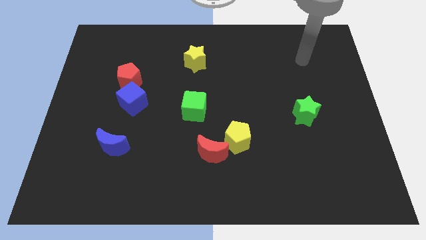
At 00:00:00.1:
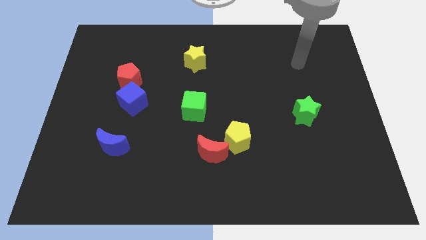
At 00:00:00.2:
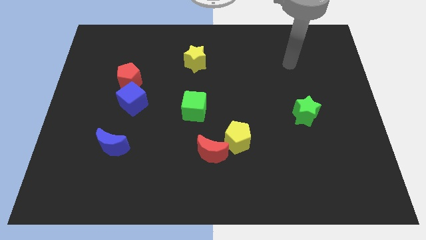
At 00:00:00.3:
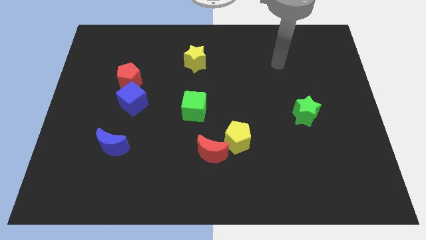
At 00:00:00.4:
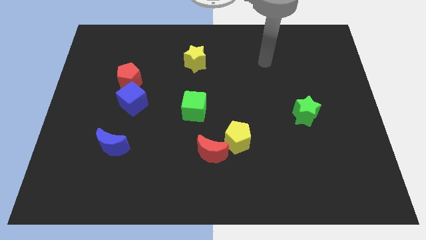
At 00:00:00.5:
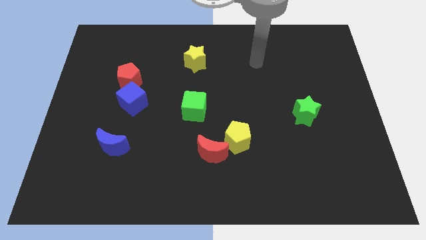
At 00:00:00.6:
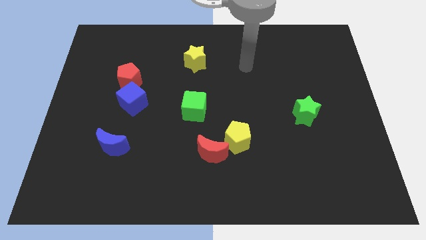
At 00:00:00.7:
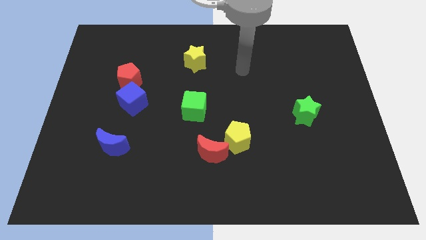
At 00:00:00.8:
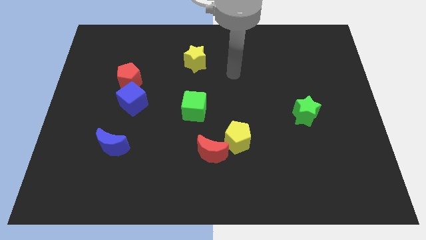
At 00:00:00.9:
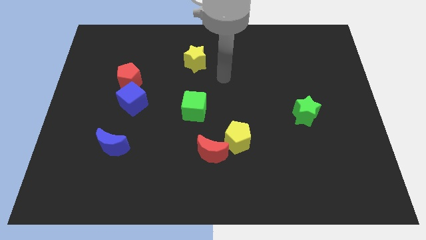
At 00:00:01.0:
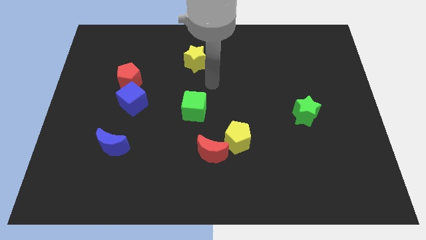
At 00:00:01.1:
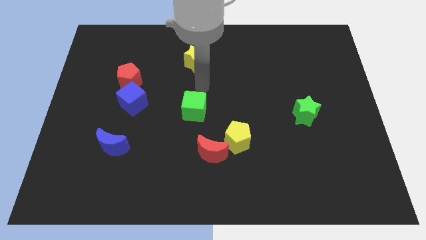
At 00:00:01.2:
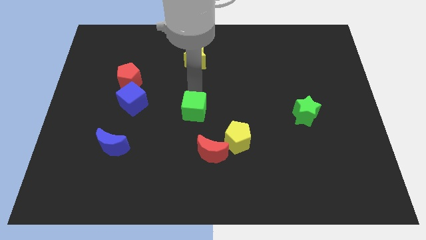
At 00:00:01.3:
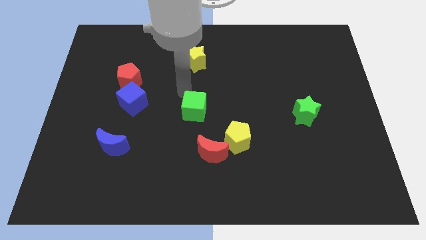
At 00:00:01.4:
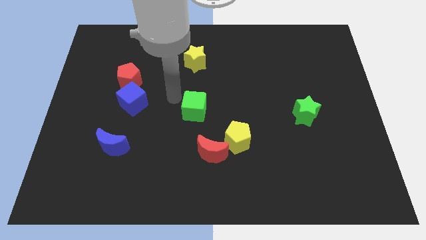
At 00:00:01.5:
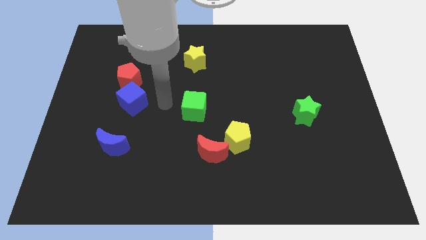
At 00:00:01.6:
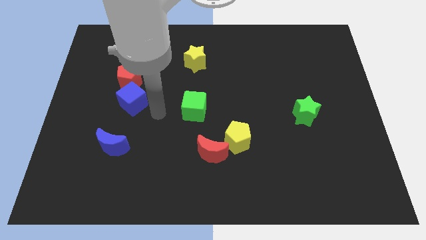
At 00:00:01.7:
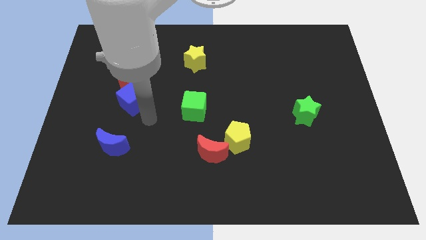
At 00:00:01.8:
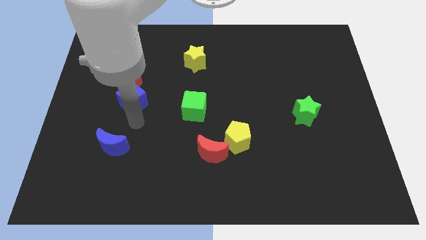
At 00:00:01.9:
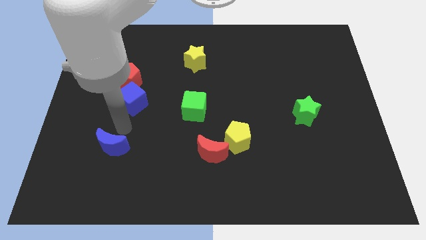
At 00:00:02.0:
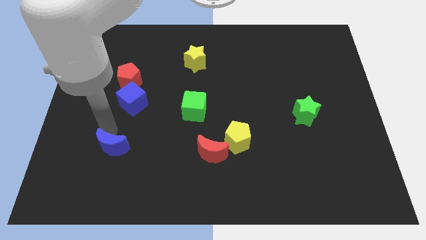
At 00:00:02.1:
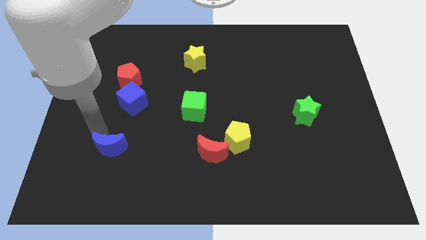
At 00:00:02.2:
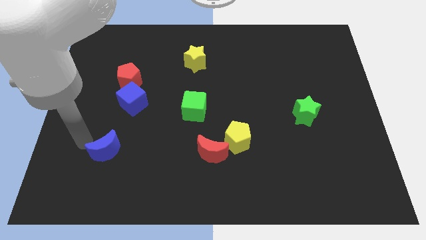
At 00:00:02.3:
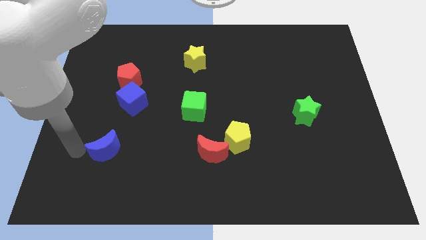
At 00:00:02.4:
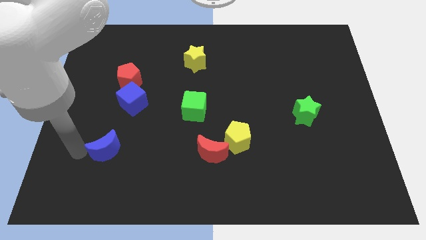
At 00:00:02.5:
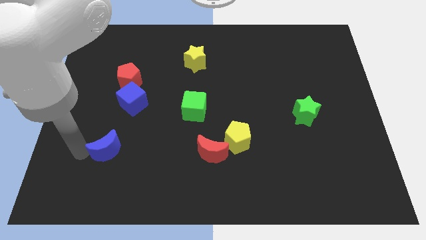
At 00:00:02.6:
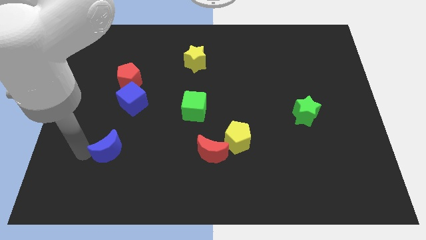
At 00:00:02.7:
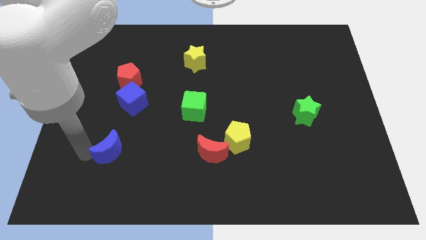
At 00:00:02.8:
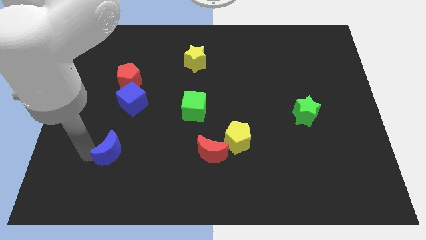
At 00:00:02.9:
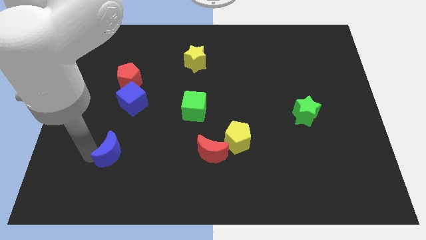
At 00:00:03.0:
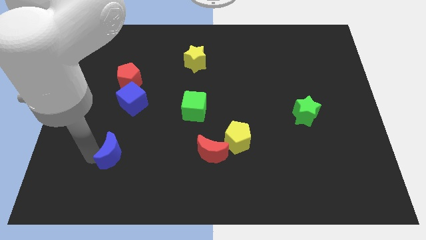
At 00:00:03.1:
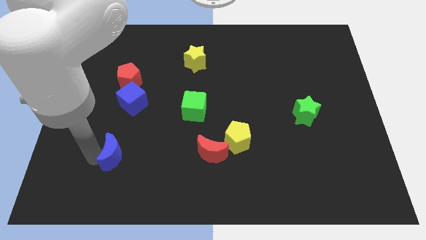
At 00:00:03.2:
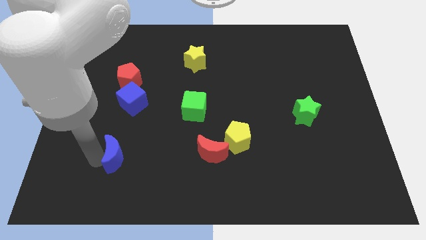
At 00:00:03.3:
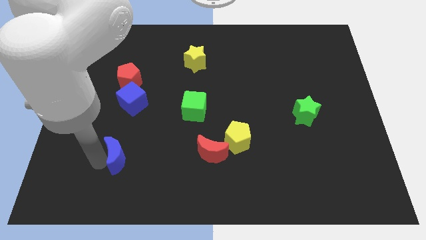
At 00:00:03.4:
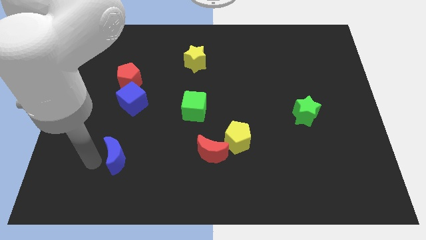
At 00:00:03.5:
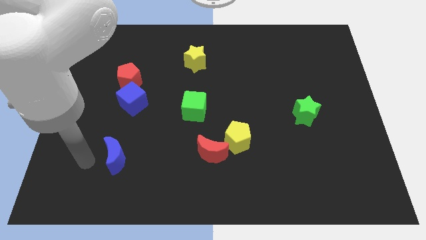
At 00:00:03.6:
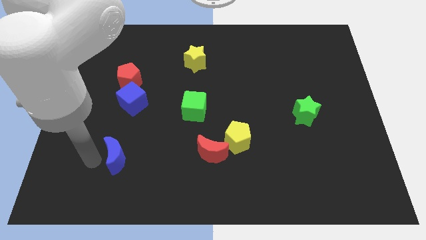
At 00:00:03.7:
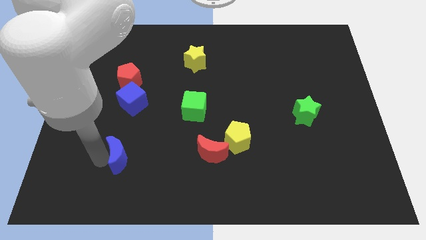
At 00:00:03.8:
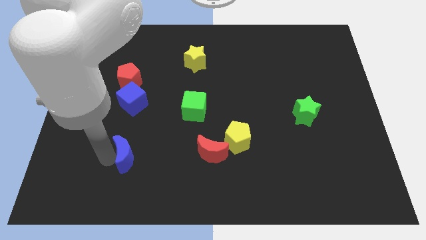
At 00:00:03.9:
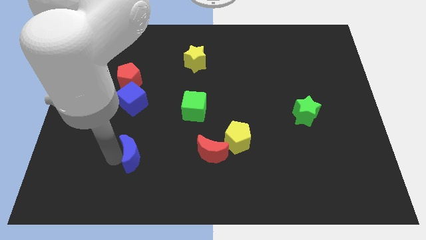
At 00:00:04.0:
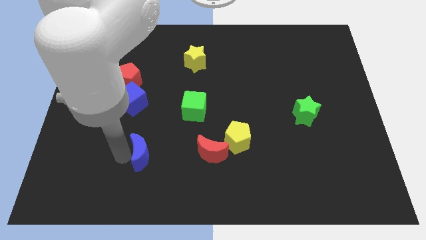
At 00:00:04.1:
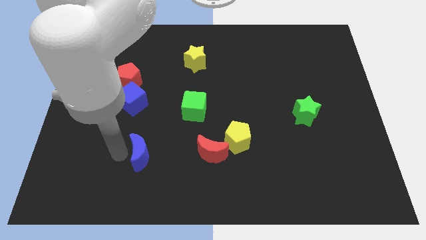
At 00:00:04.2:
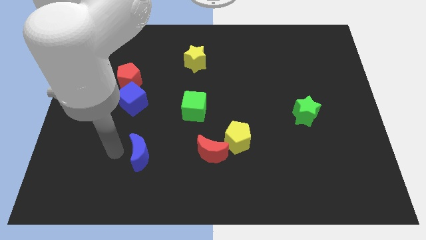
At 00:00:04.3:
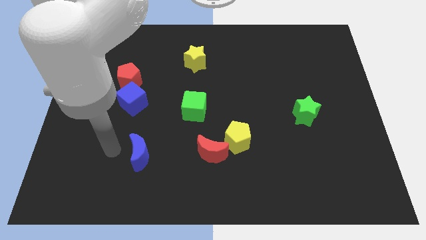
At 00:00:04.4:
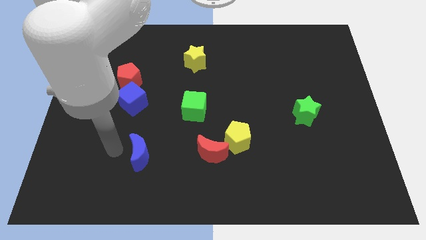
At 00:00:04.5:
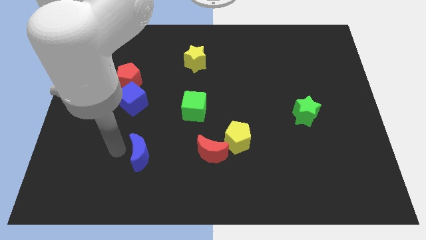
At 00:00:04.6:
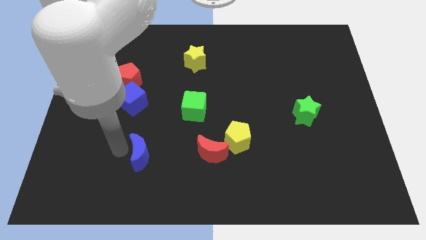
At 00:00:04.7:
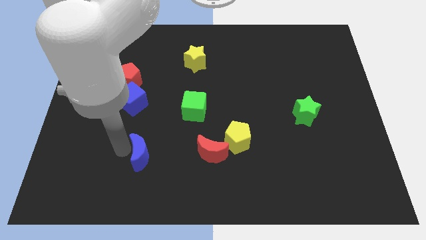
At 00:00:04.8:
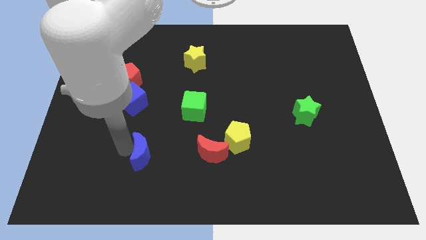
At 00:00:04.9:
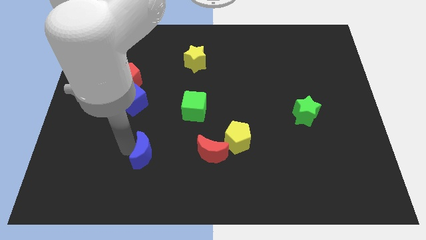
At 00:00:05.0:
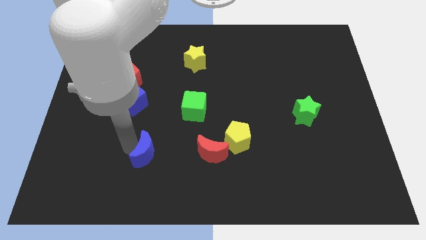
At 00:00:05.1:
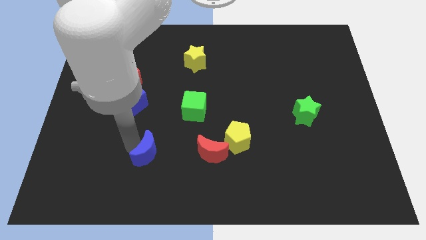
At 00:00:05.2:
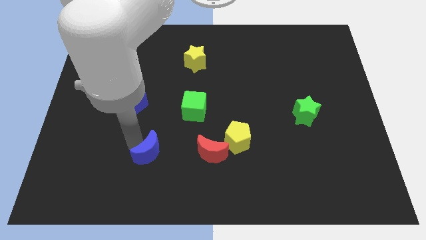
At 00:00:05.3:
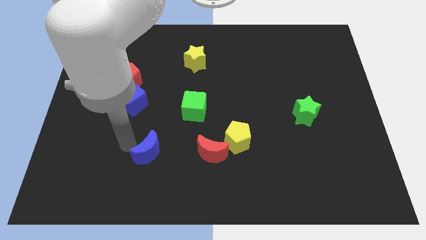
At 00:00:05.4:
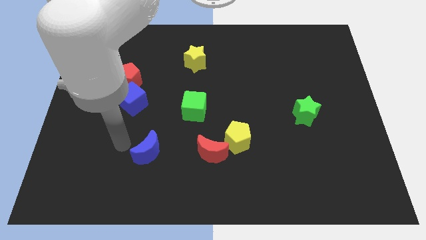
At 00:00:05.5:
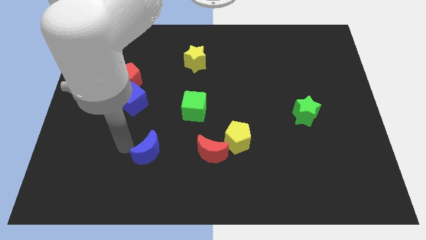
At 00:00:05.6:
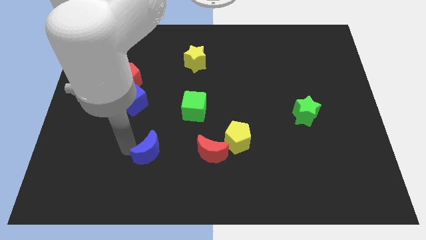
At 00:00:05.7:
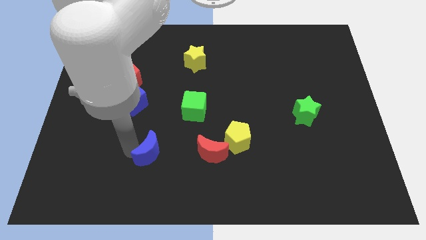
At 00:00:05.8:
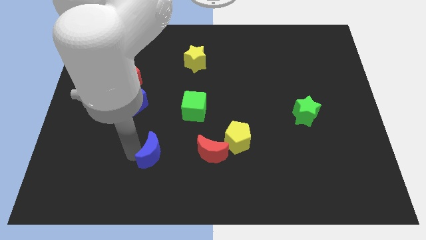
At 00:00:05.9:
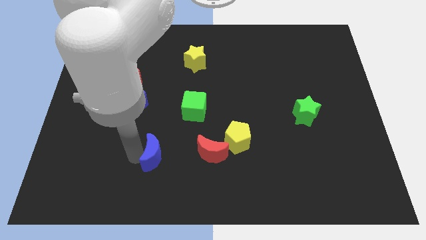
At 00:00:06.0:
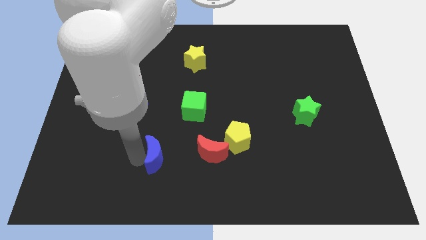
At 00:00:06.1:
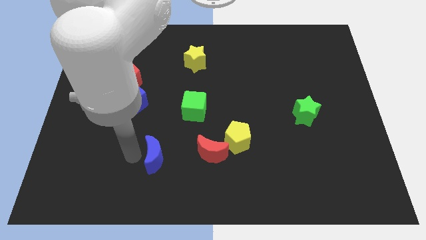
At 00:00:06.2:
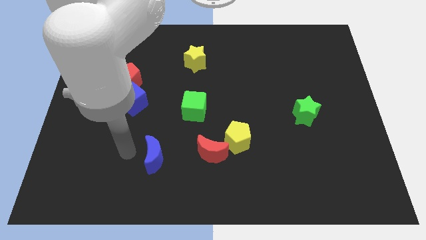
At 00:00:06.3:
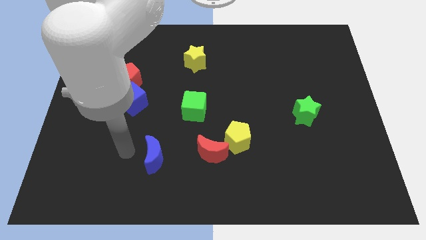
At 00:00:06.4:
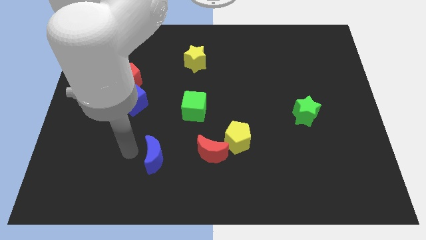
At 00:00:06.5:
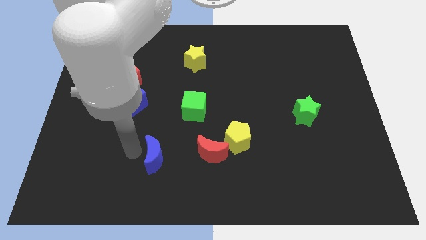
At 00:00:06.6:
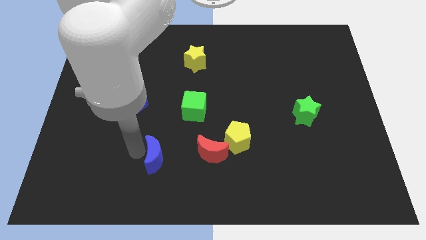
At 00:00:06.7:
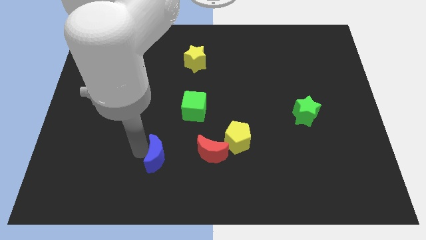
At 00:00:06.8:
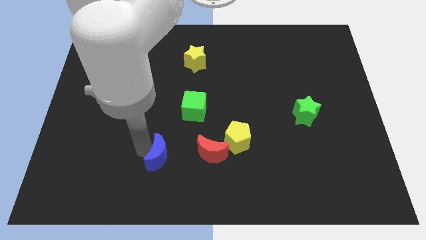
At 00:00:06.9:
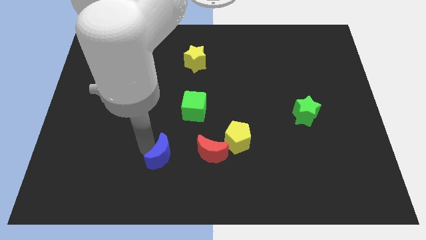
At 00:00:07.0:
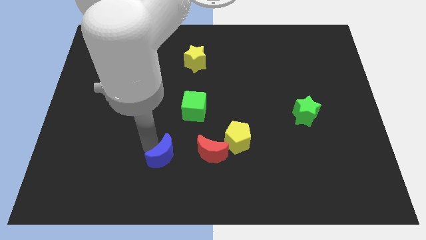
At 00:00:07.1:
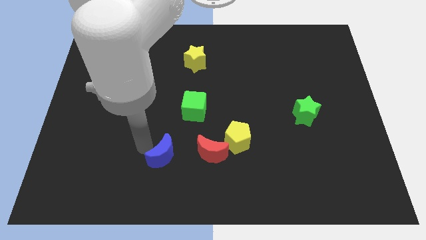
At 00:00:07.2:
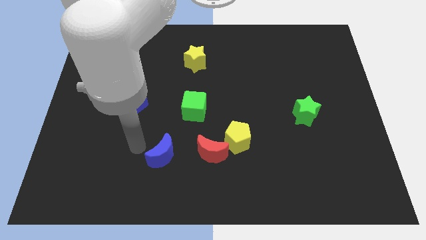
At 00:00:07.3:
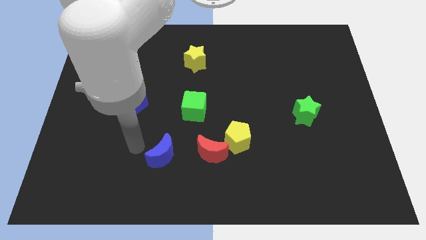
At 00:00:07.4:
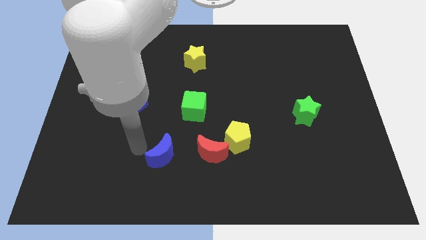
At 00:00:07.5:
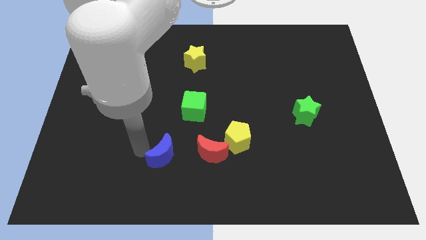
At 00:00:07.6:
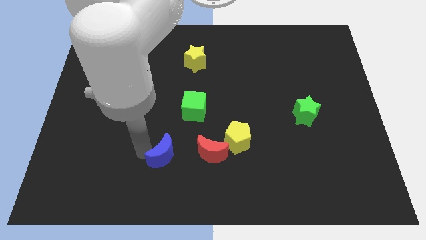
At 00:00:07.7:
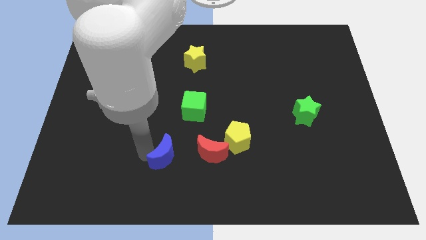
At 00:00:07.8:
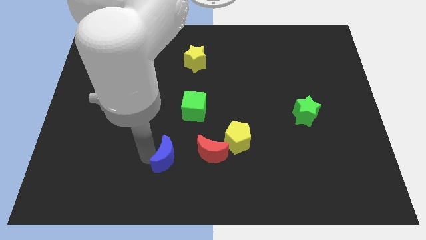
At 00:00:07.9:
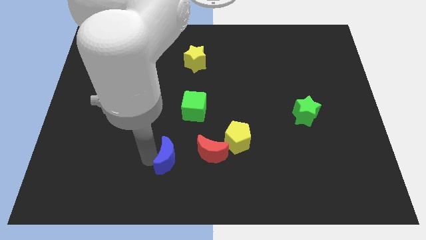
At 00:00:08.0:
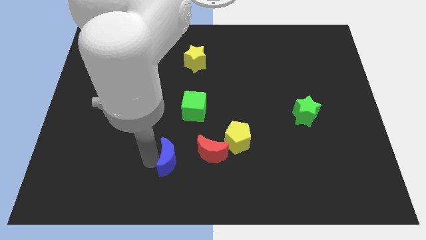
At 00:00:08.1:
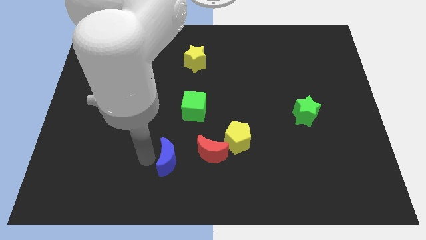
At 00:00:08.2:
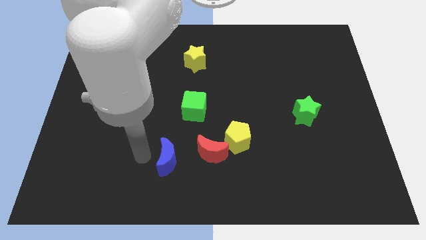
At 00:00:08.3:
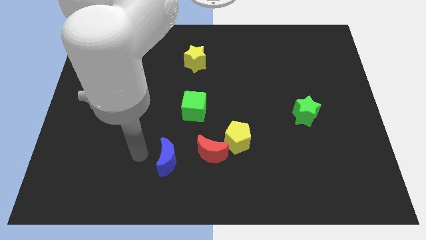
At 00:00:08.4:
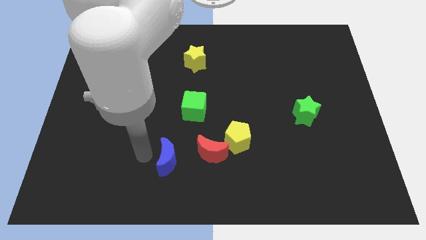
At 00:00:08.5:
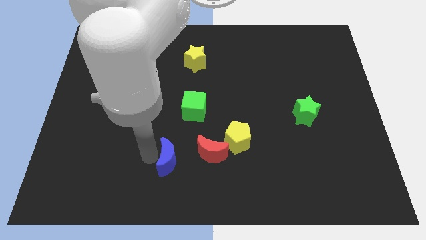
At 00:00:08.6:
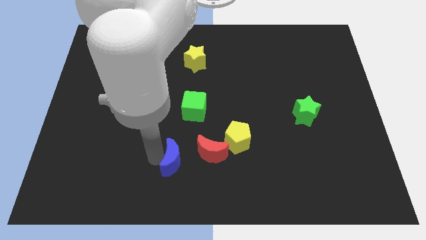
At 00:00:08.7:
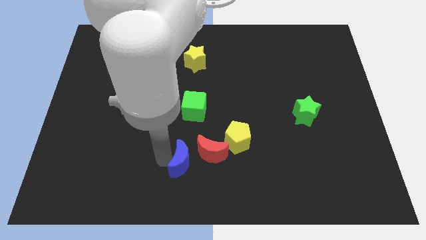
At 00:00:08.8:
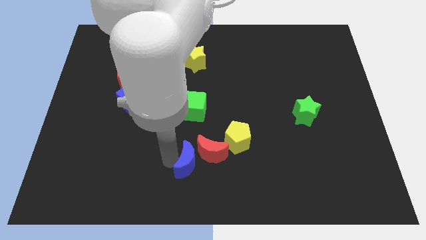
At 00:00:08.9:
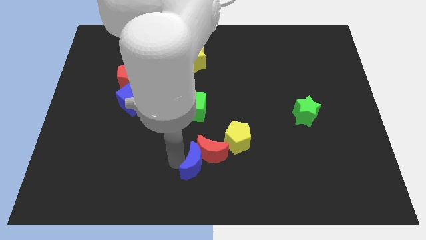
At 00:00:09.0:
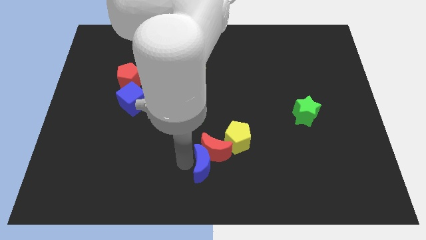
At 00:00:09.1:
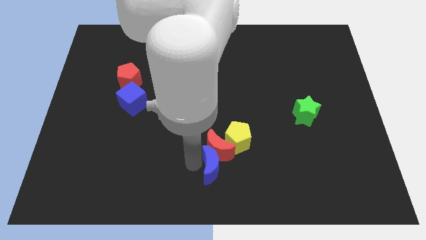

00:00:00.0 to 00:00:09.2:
move the blue moon right
